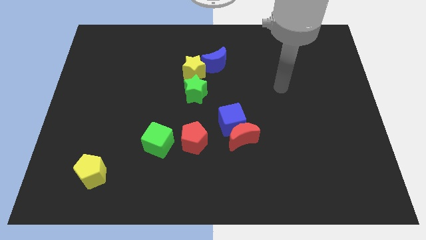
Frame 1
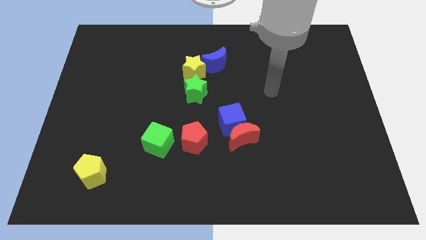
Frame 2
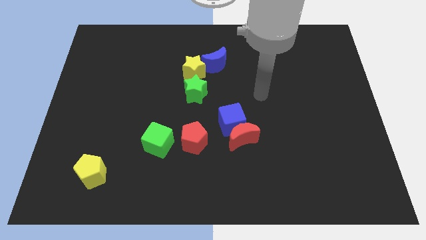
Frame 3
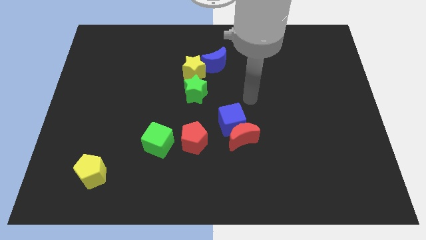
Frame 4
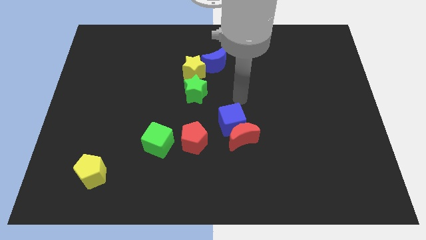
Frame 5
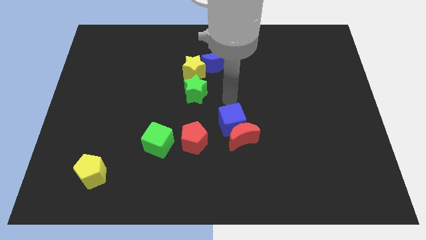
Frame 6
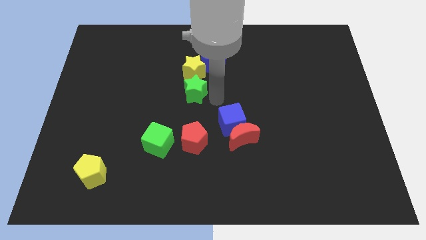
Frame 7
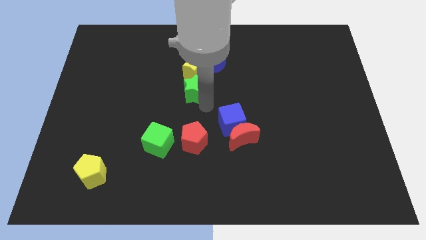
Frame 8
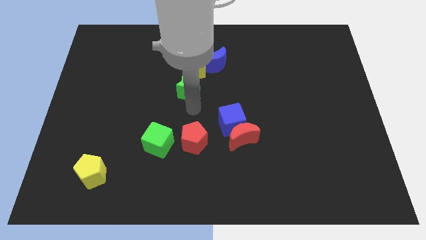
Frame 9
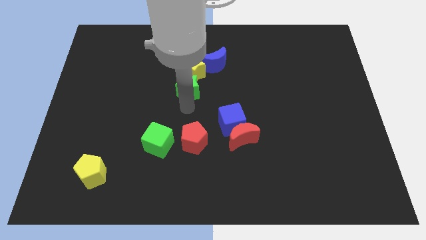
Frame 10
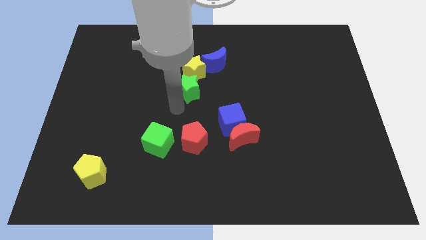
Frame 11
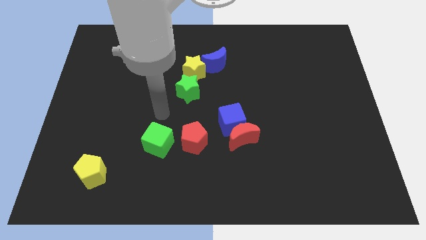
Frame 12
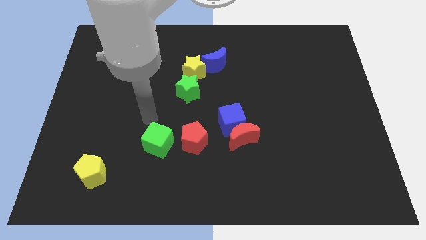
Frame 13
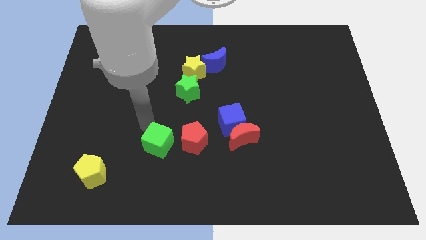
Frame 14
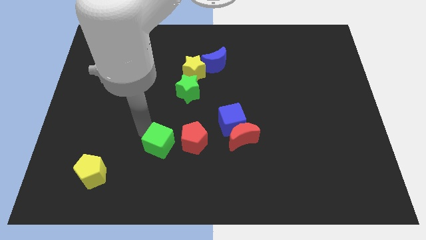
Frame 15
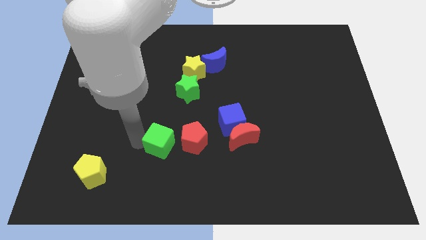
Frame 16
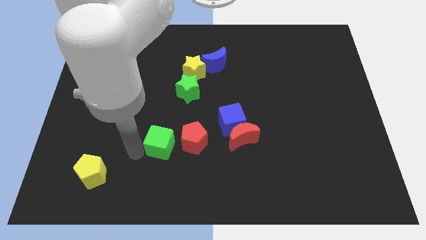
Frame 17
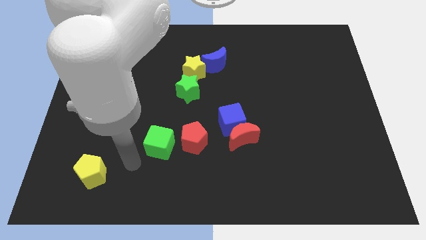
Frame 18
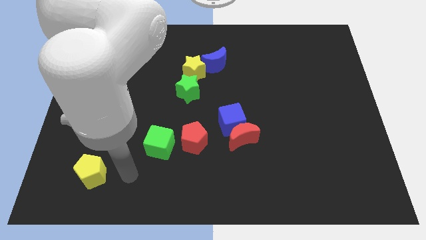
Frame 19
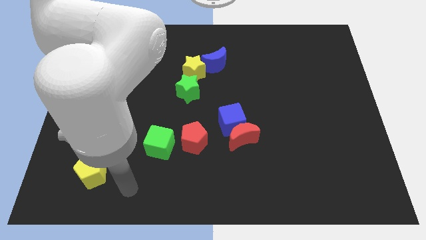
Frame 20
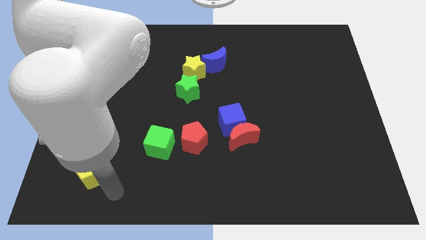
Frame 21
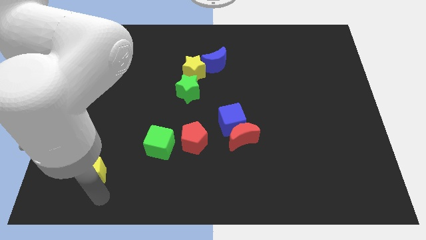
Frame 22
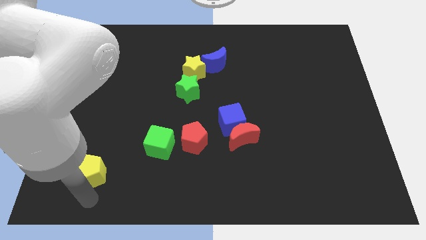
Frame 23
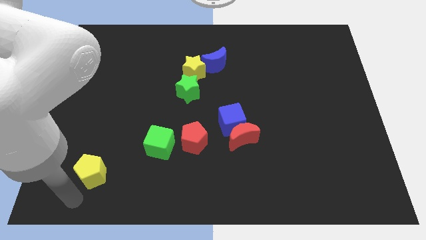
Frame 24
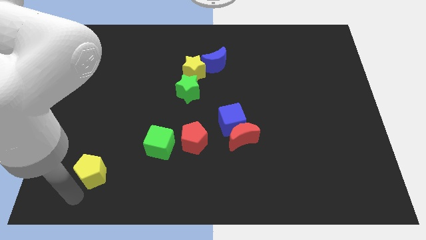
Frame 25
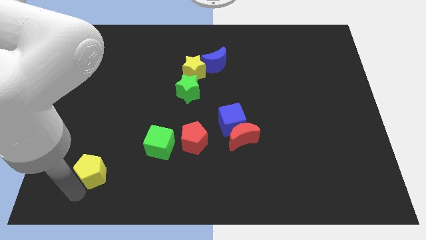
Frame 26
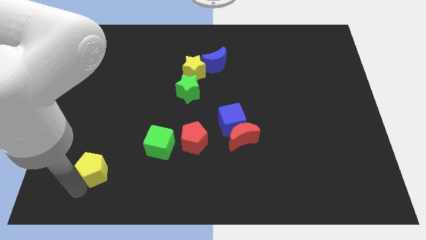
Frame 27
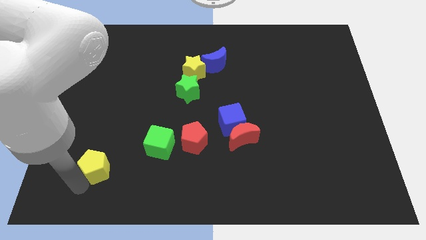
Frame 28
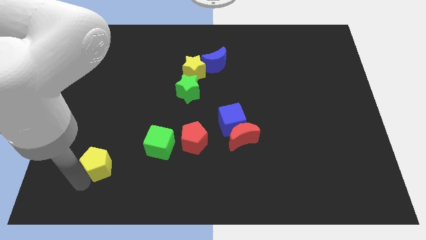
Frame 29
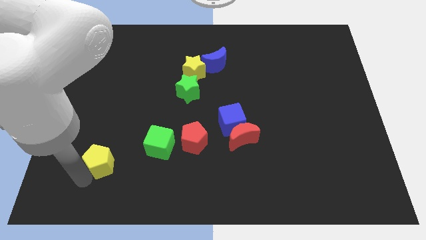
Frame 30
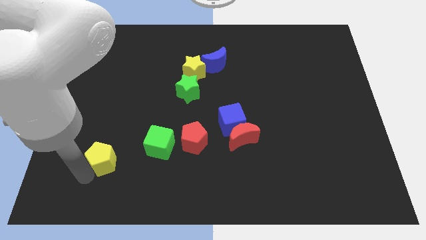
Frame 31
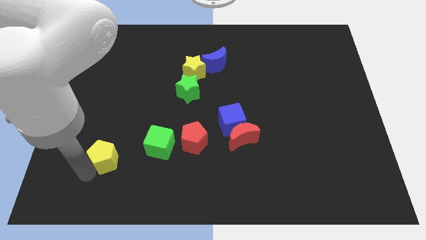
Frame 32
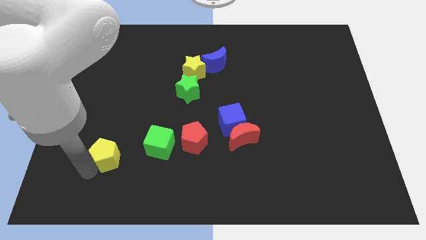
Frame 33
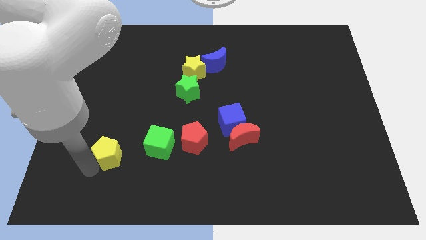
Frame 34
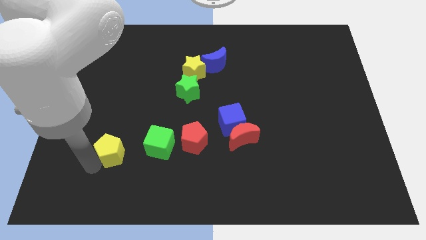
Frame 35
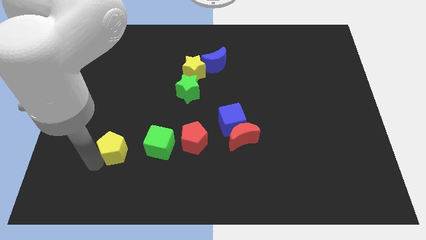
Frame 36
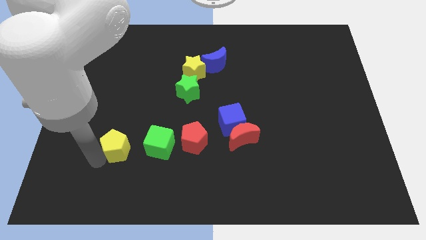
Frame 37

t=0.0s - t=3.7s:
slightly move the yellow pentagon up and to the right diagonally

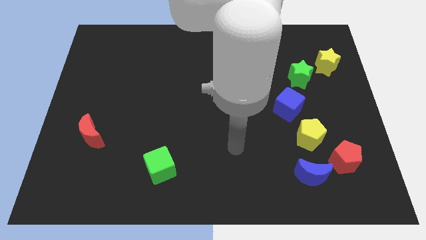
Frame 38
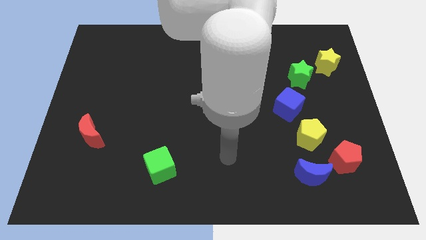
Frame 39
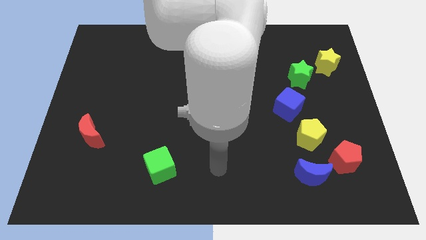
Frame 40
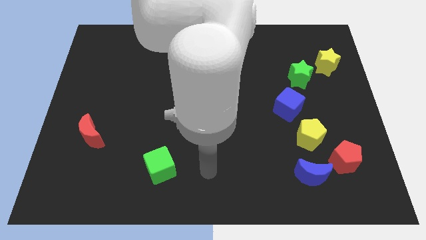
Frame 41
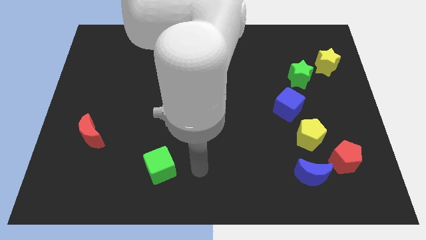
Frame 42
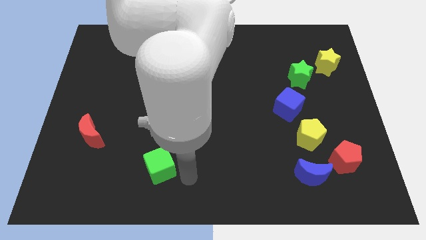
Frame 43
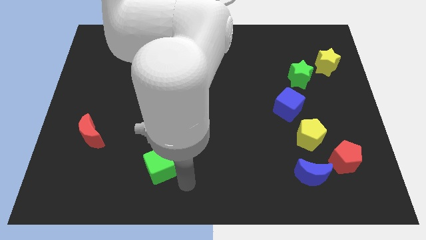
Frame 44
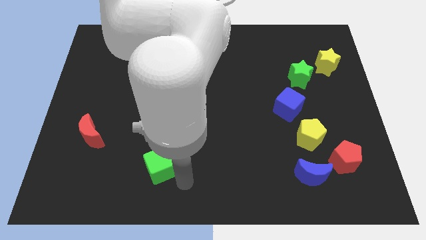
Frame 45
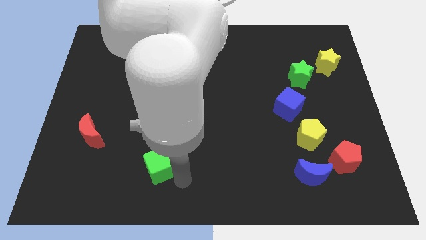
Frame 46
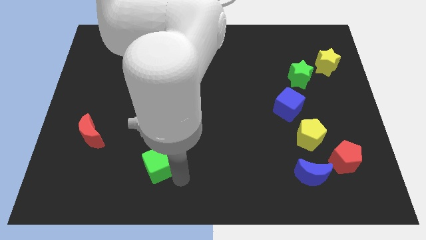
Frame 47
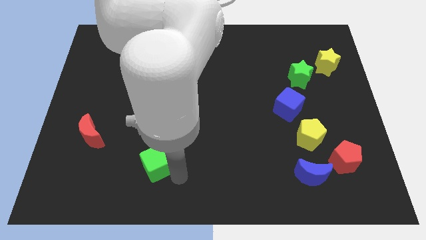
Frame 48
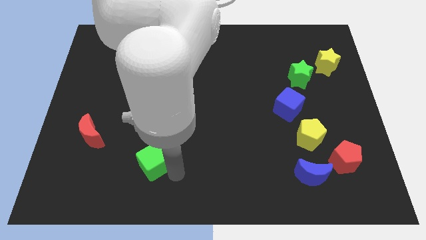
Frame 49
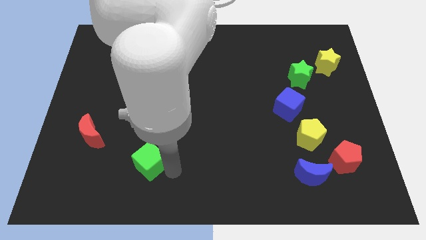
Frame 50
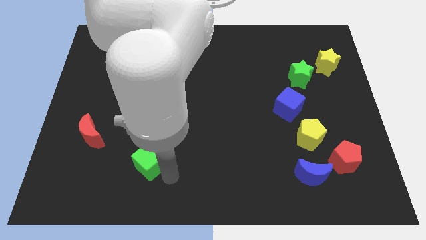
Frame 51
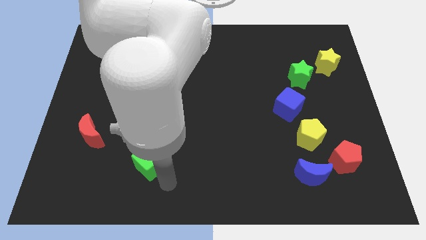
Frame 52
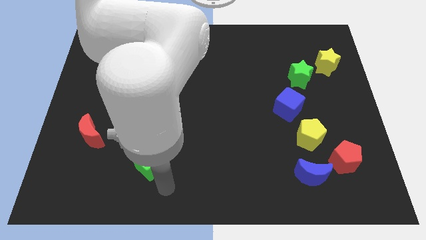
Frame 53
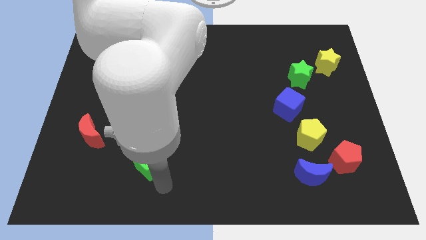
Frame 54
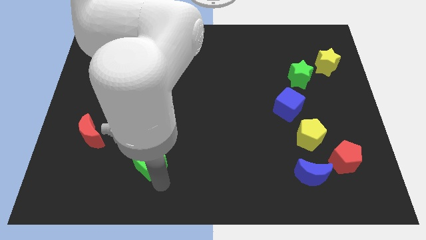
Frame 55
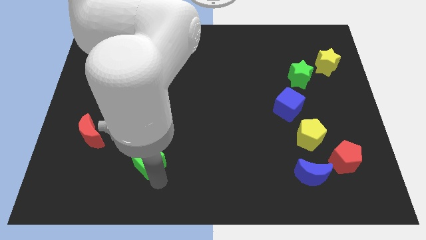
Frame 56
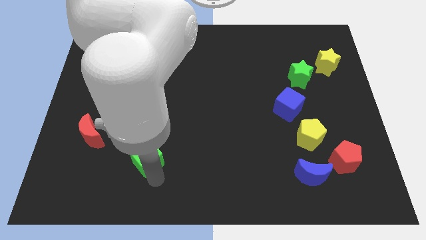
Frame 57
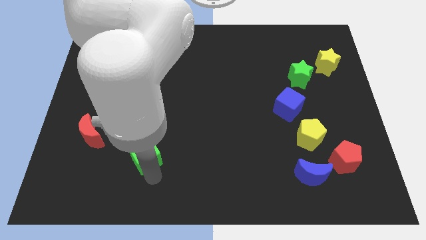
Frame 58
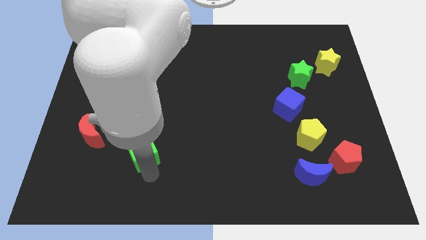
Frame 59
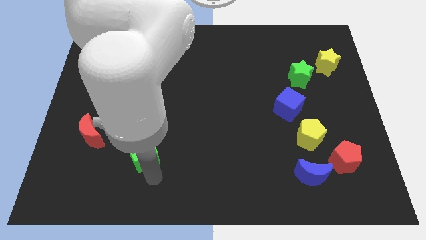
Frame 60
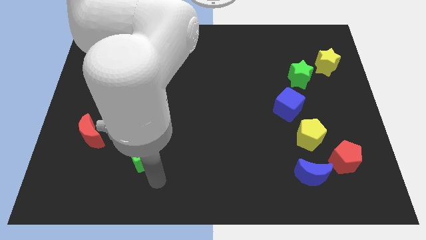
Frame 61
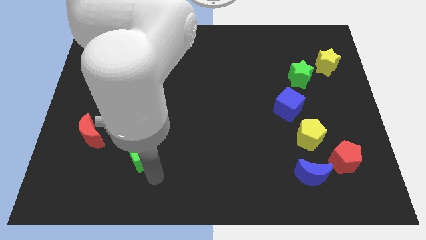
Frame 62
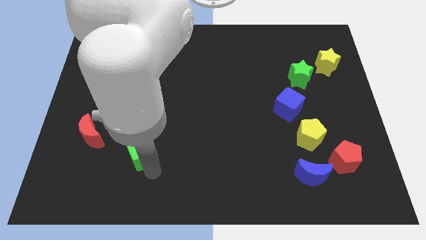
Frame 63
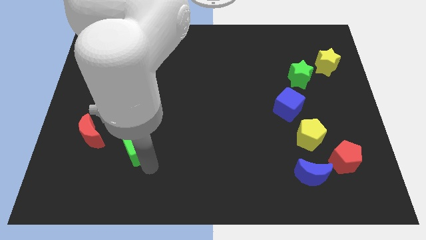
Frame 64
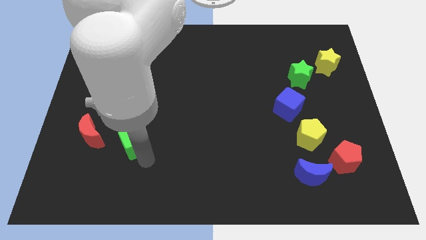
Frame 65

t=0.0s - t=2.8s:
move the green cube diagonally up and to the left a bit

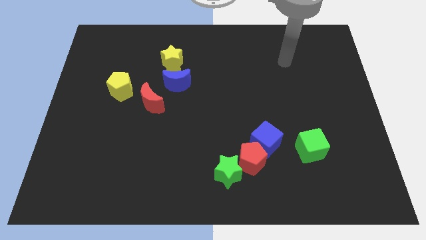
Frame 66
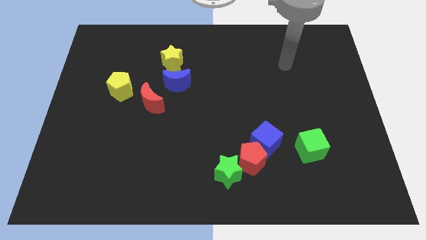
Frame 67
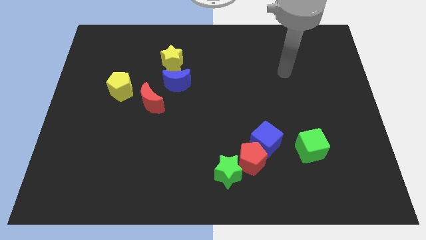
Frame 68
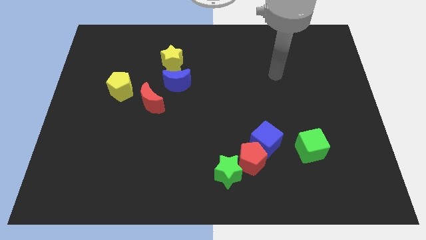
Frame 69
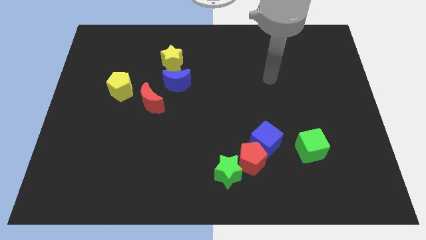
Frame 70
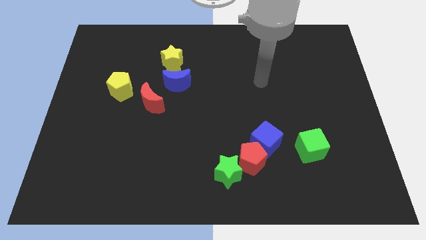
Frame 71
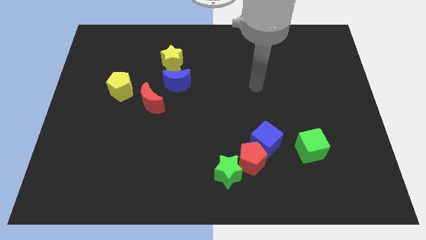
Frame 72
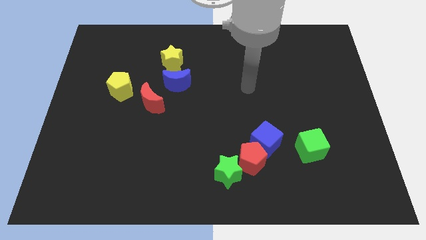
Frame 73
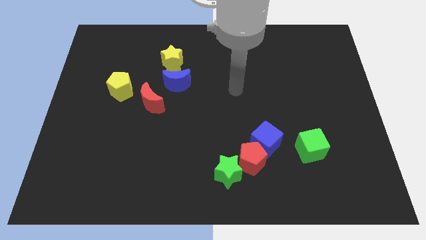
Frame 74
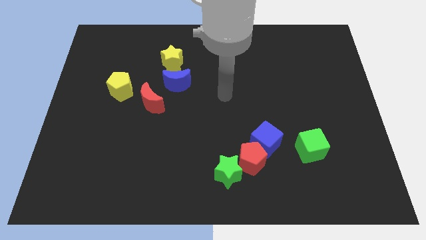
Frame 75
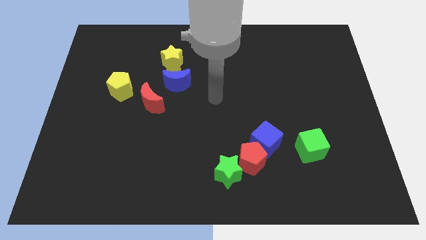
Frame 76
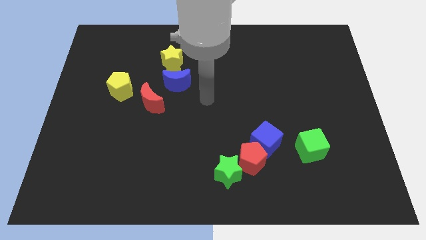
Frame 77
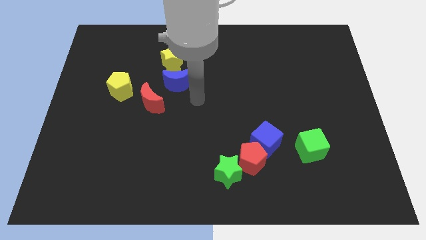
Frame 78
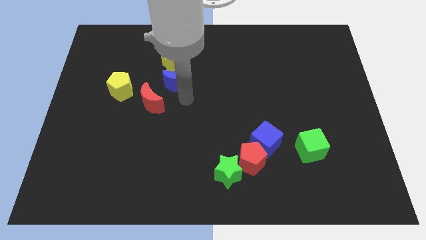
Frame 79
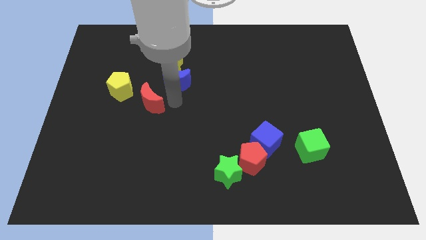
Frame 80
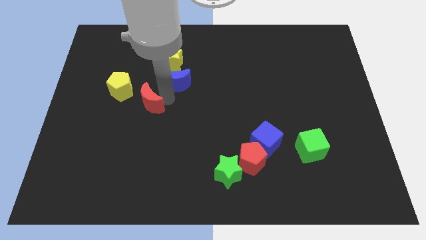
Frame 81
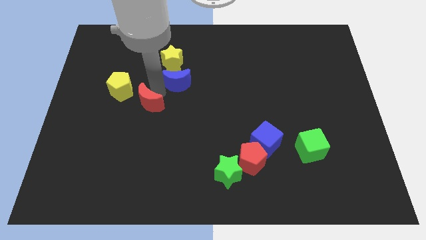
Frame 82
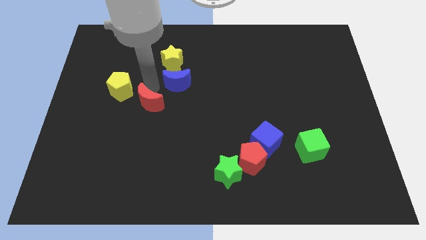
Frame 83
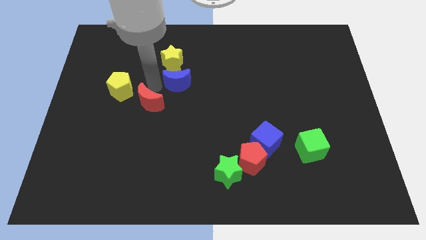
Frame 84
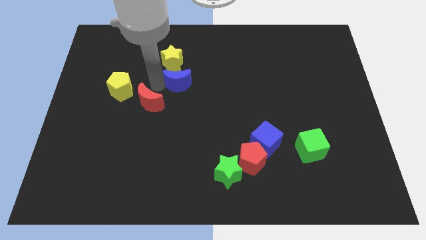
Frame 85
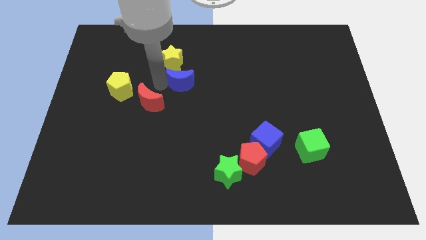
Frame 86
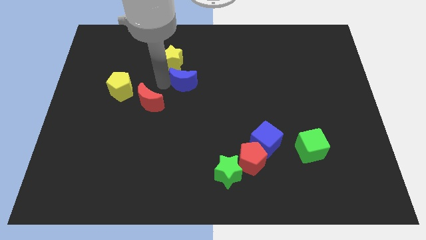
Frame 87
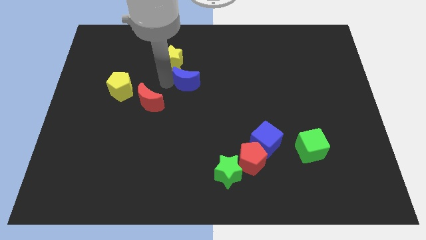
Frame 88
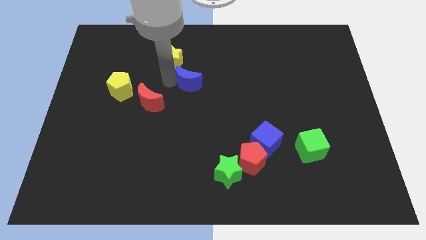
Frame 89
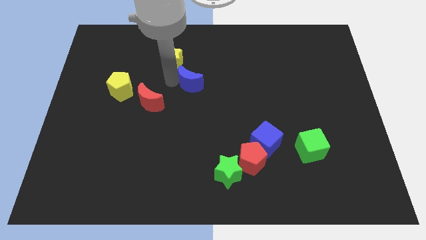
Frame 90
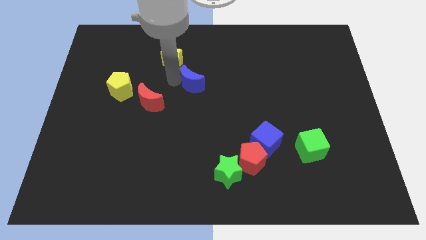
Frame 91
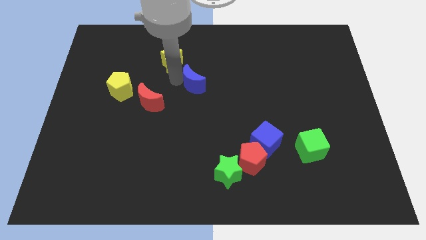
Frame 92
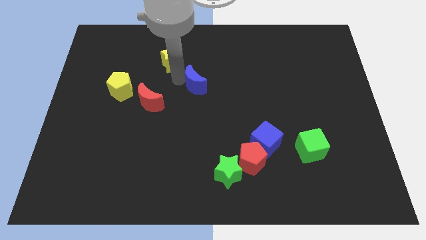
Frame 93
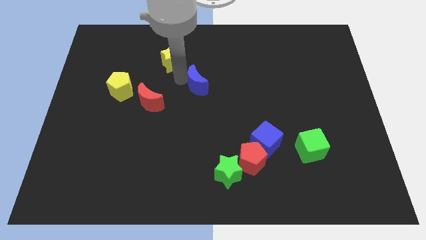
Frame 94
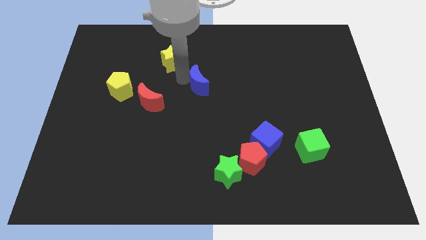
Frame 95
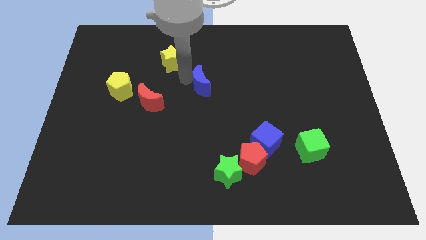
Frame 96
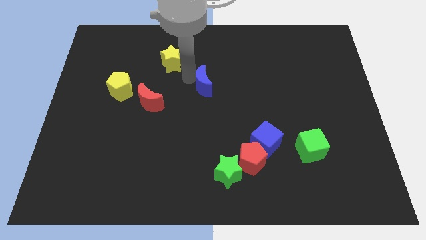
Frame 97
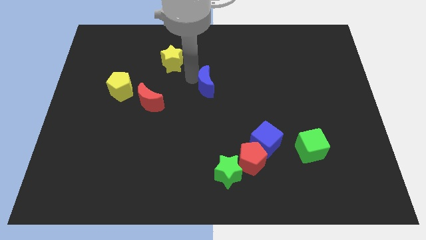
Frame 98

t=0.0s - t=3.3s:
slide the blue moon right somewhat
